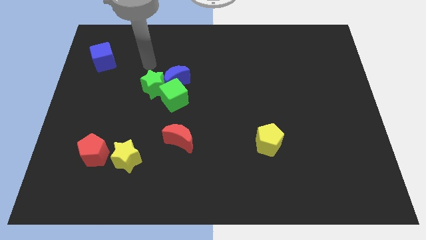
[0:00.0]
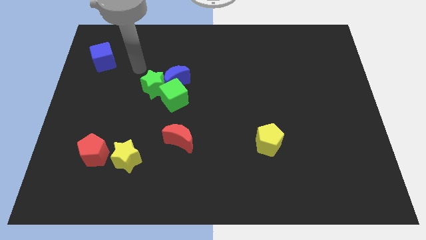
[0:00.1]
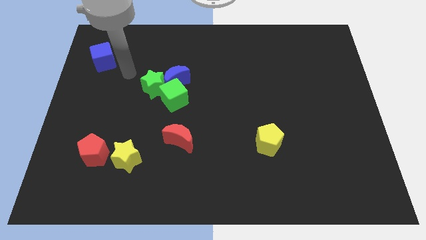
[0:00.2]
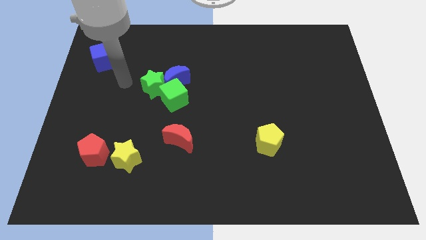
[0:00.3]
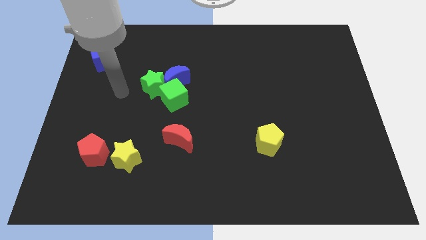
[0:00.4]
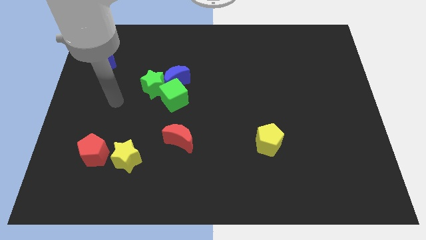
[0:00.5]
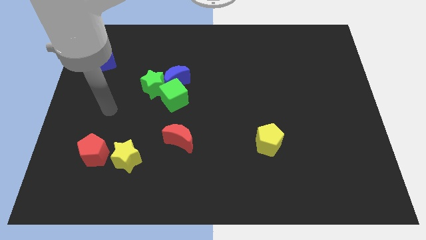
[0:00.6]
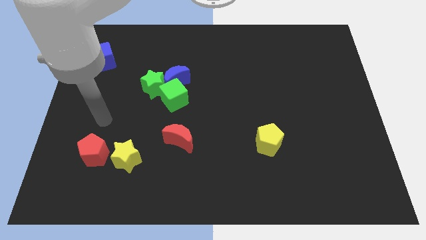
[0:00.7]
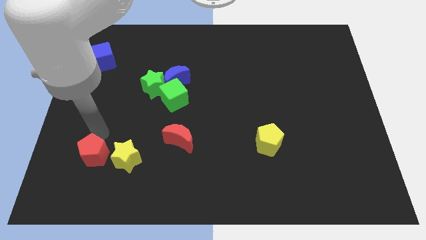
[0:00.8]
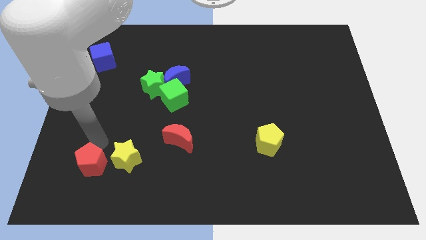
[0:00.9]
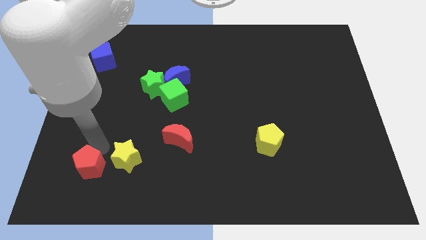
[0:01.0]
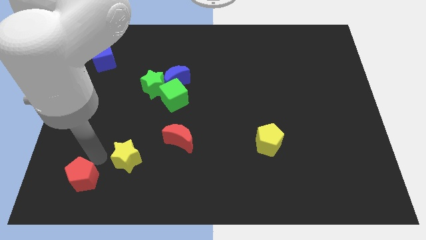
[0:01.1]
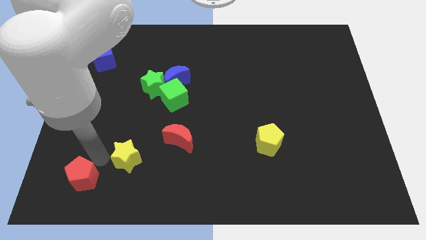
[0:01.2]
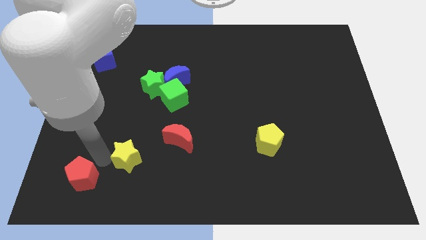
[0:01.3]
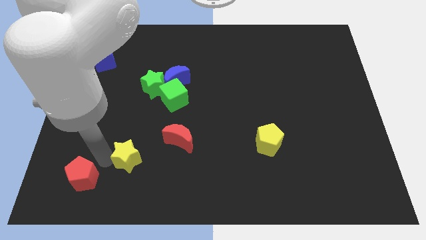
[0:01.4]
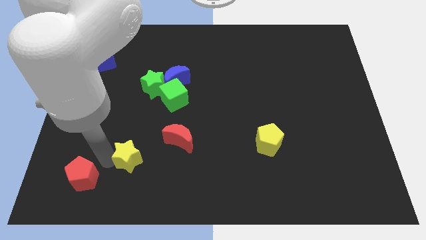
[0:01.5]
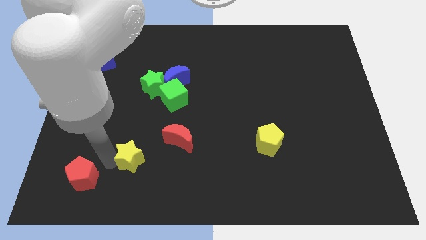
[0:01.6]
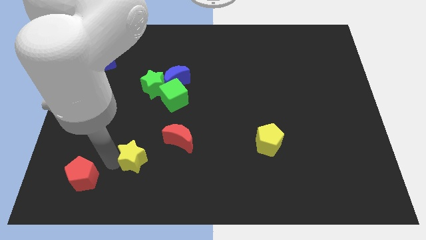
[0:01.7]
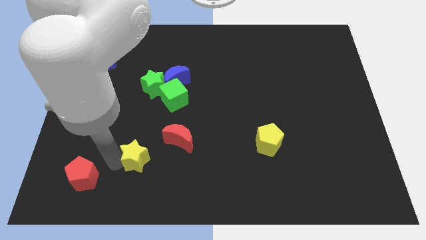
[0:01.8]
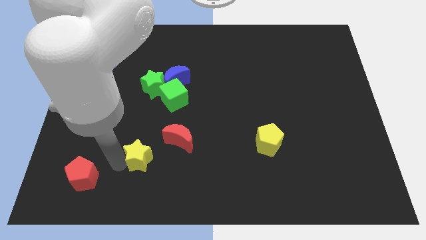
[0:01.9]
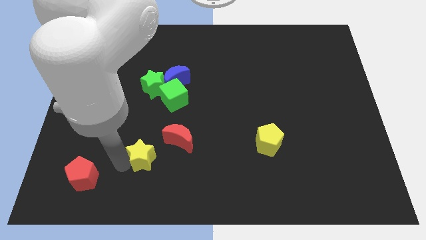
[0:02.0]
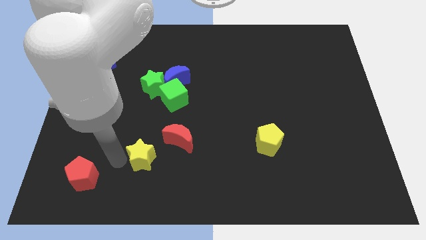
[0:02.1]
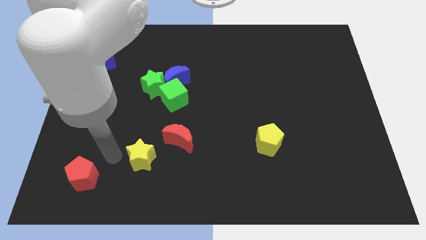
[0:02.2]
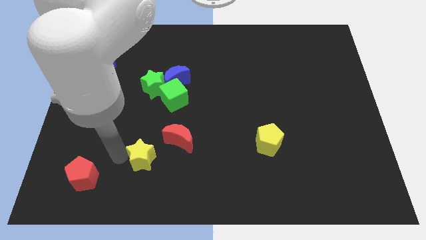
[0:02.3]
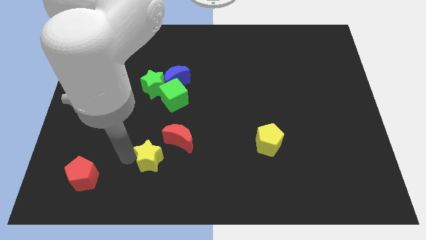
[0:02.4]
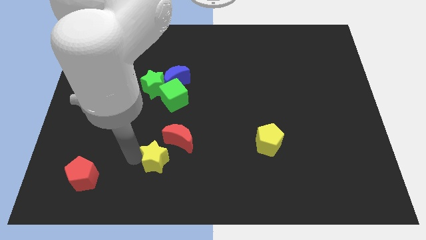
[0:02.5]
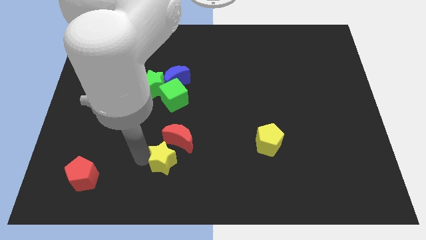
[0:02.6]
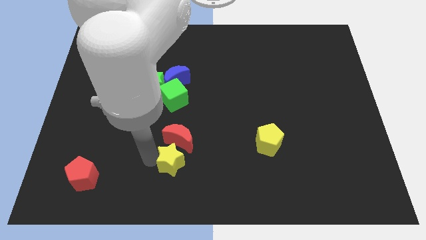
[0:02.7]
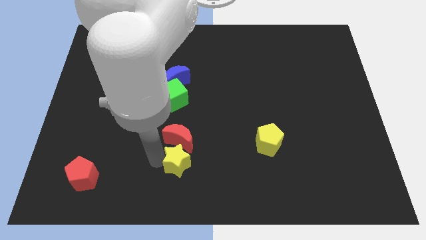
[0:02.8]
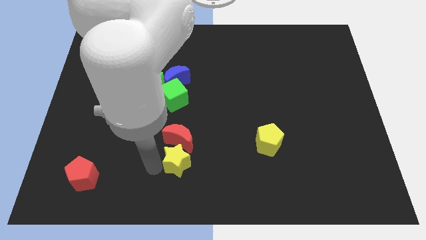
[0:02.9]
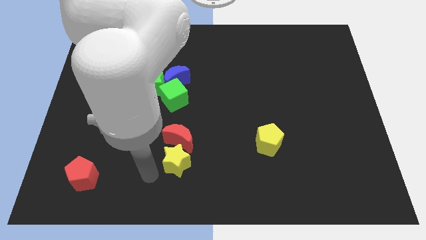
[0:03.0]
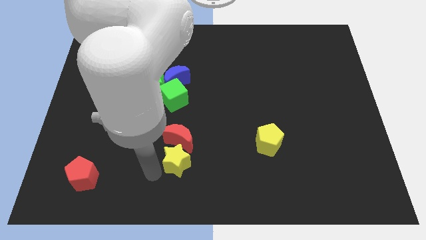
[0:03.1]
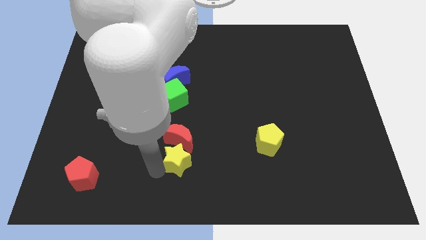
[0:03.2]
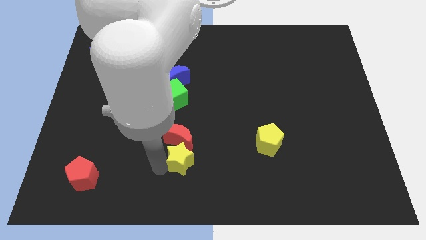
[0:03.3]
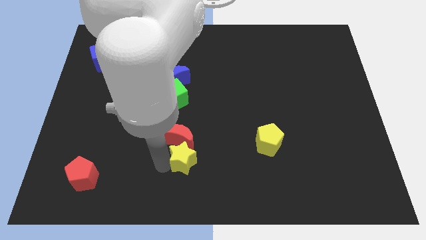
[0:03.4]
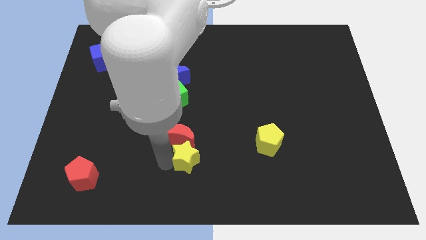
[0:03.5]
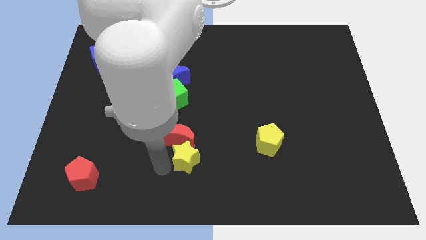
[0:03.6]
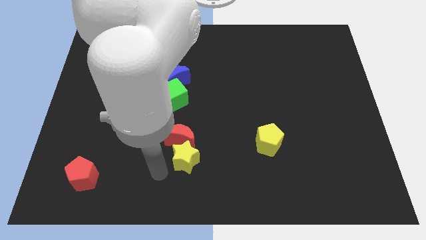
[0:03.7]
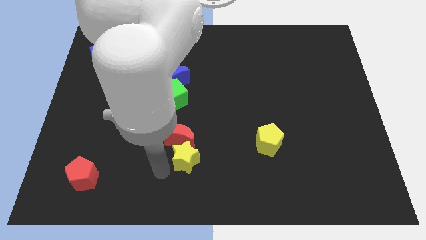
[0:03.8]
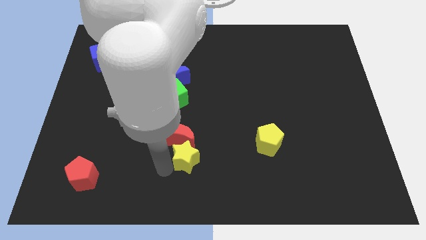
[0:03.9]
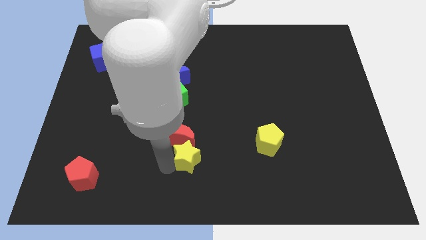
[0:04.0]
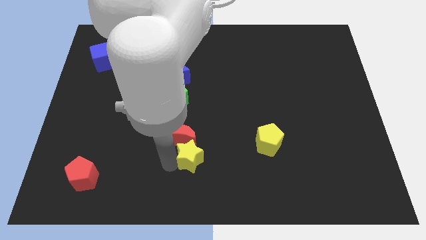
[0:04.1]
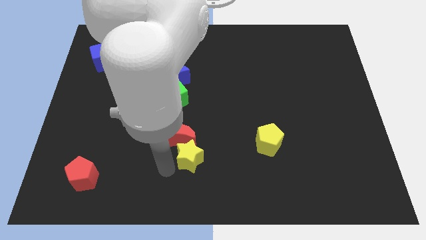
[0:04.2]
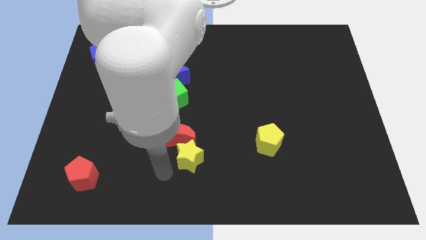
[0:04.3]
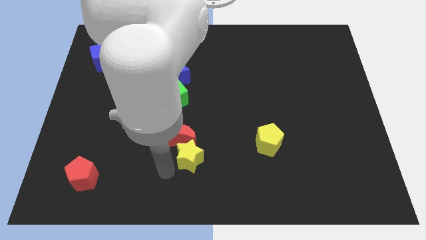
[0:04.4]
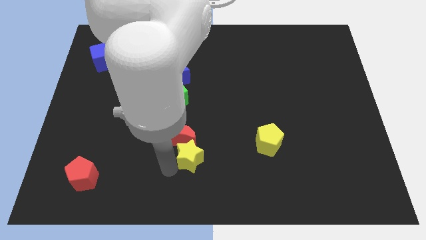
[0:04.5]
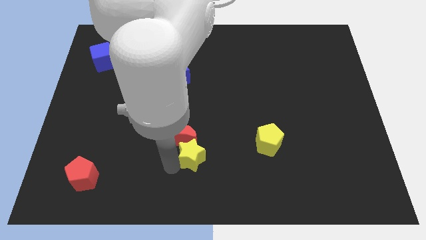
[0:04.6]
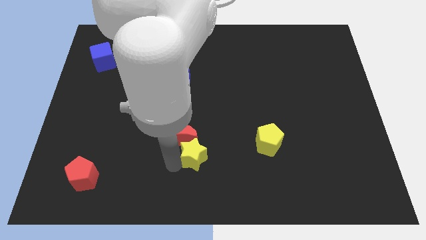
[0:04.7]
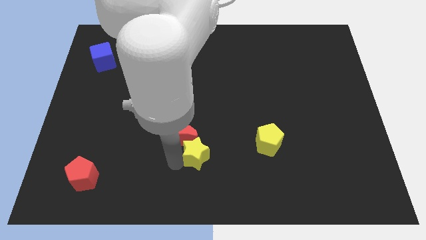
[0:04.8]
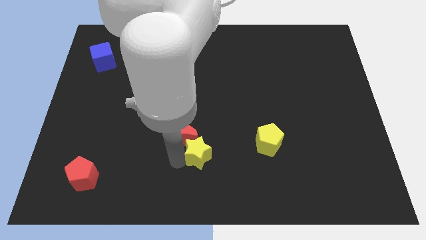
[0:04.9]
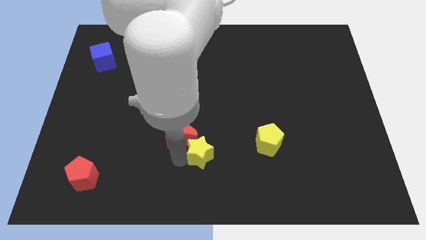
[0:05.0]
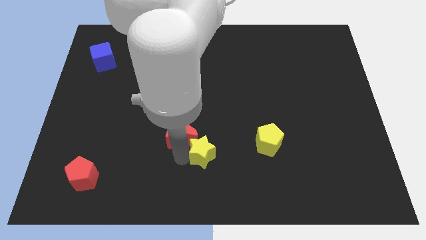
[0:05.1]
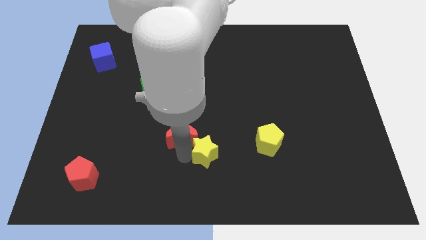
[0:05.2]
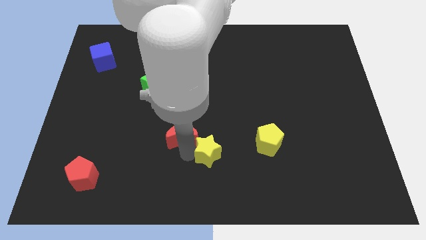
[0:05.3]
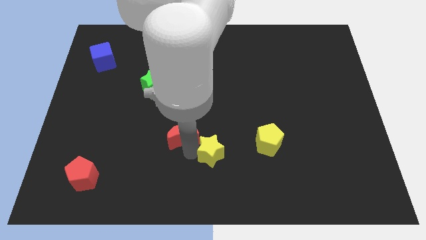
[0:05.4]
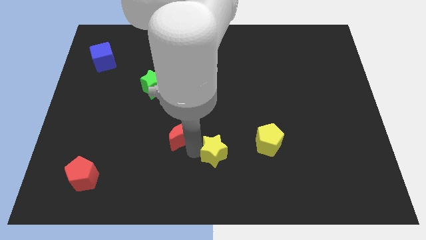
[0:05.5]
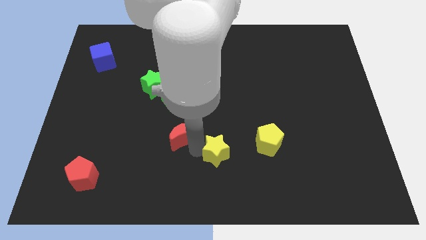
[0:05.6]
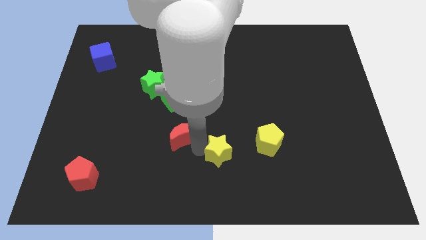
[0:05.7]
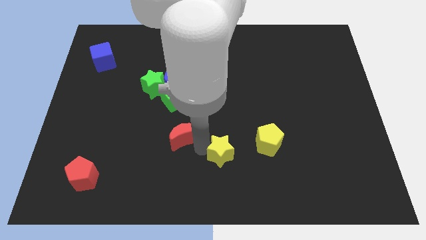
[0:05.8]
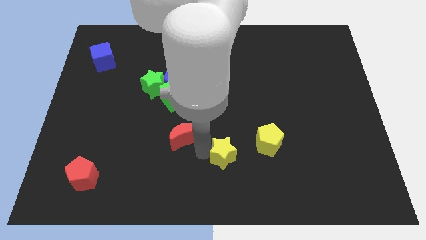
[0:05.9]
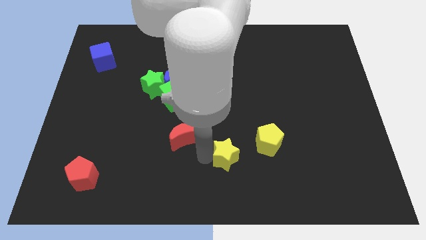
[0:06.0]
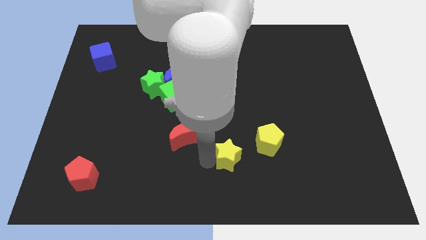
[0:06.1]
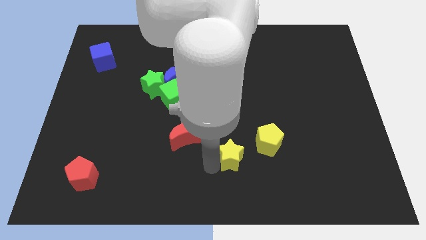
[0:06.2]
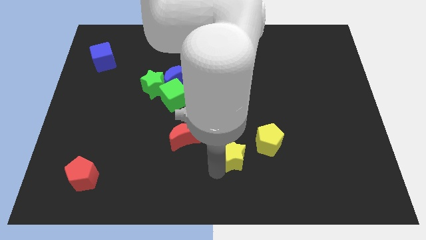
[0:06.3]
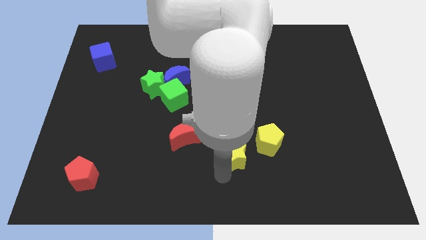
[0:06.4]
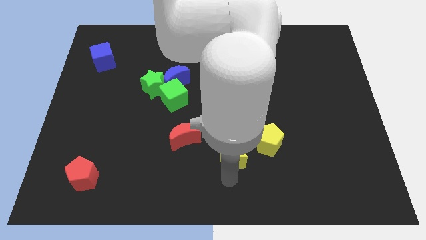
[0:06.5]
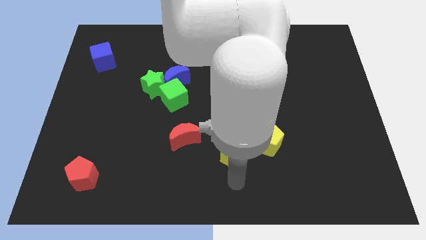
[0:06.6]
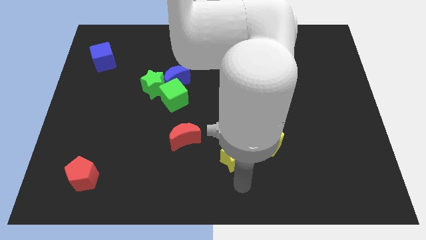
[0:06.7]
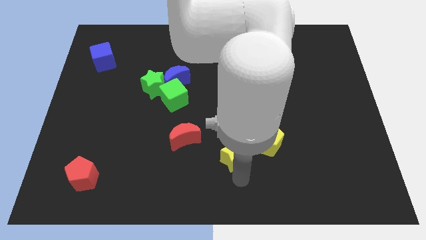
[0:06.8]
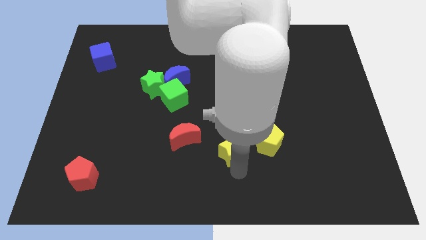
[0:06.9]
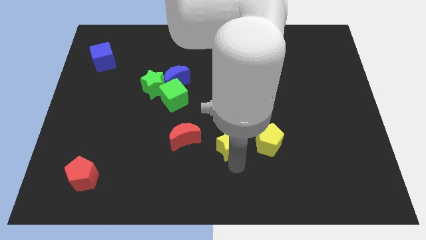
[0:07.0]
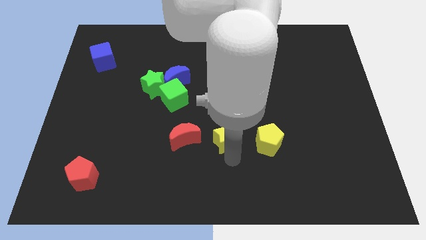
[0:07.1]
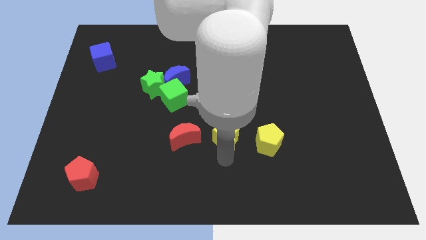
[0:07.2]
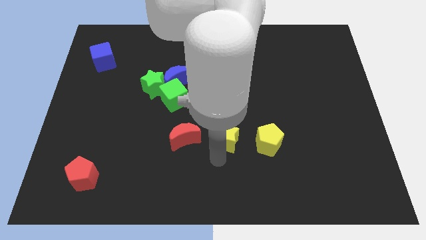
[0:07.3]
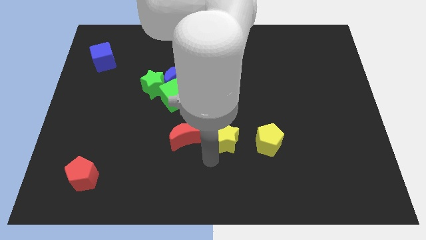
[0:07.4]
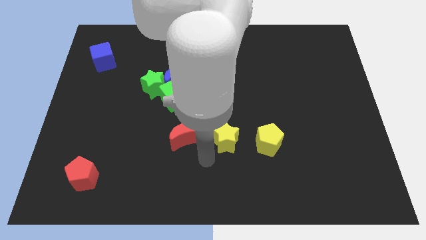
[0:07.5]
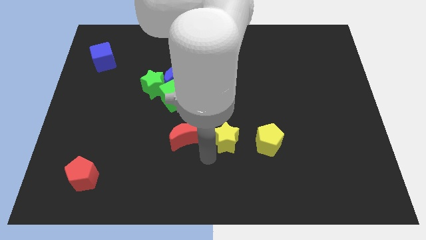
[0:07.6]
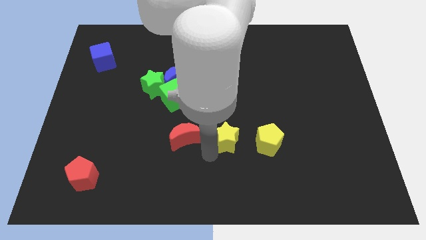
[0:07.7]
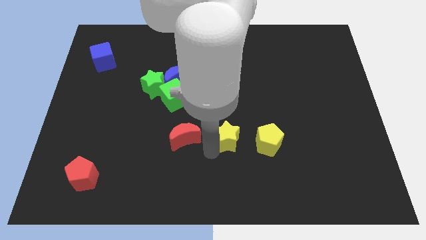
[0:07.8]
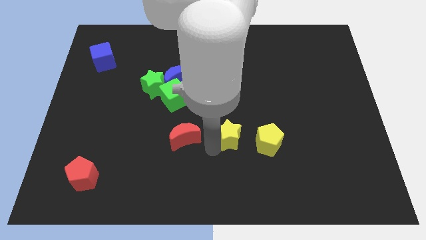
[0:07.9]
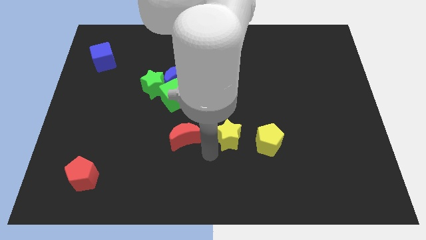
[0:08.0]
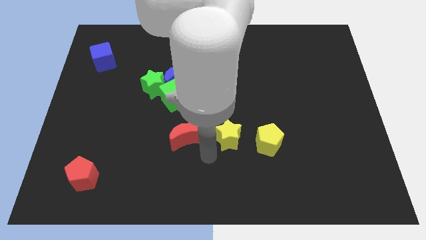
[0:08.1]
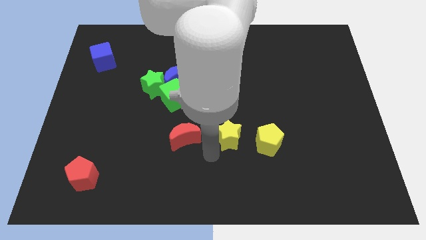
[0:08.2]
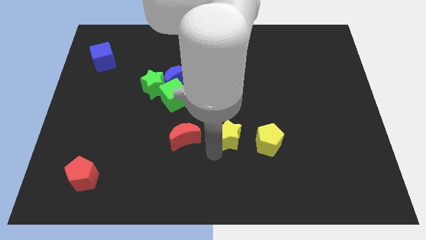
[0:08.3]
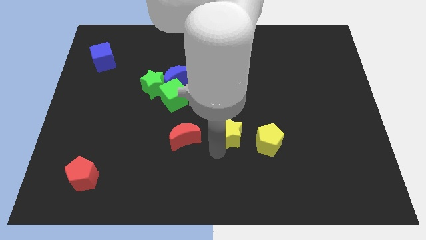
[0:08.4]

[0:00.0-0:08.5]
push the yellow star to the top left side of the yellow pentagon
